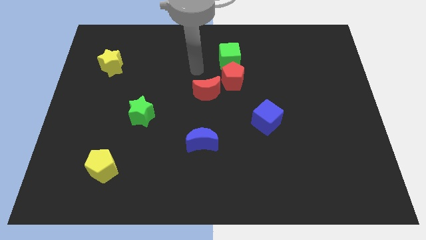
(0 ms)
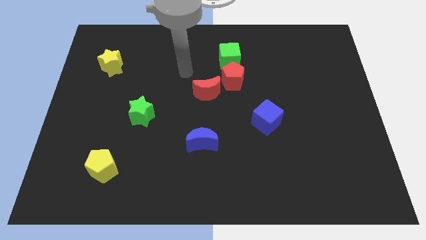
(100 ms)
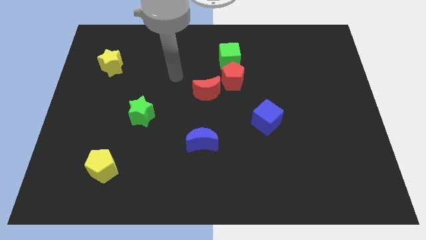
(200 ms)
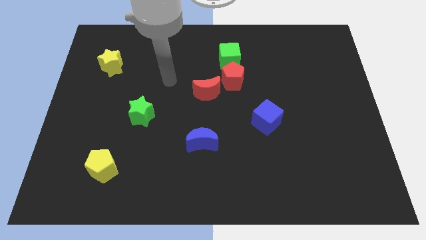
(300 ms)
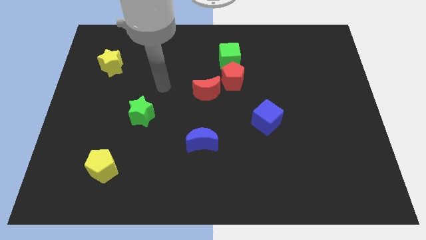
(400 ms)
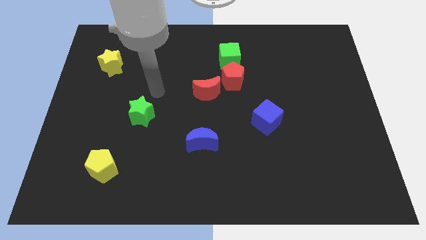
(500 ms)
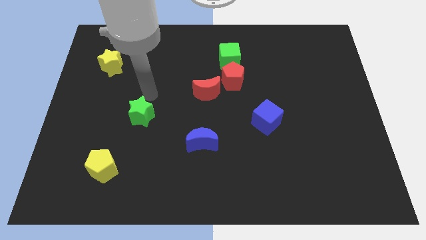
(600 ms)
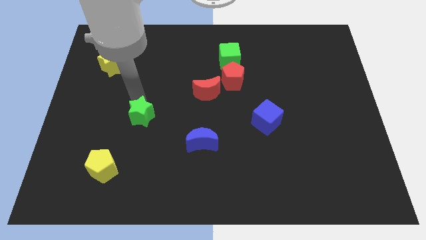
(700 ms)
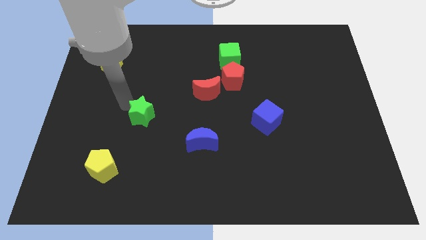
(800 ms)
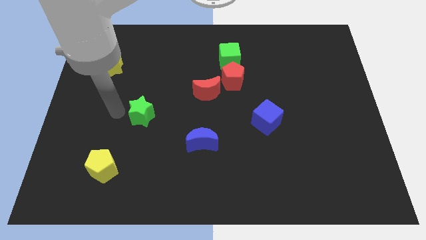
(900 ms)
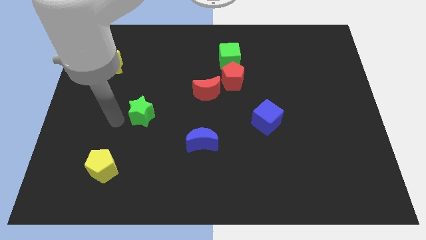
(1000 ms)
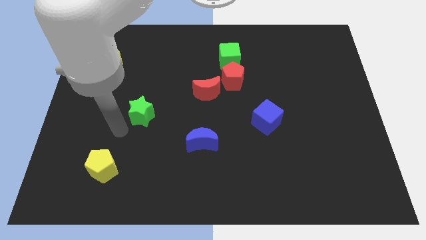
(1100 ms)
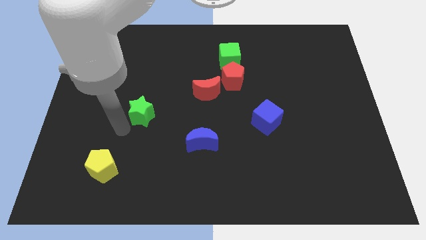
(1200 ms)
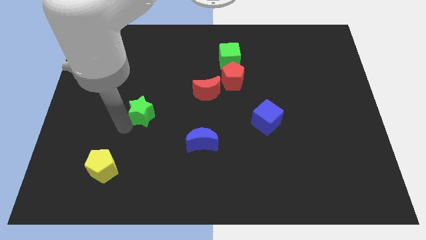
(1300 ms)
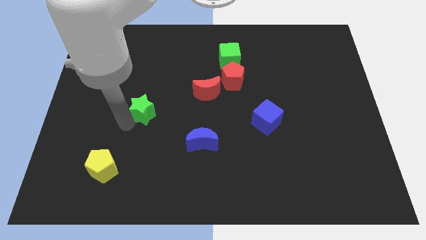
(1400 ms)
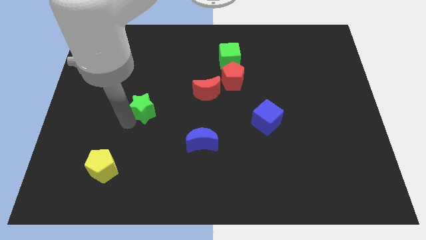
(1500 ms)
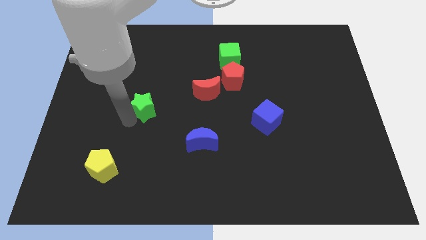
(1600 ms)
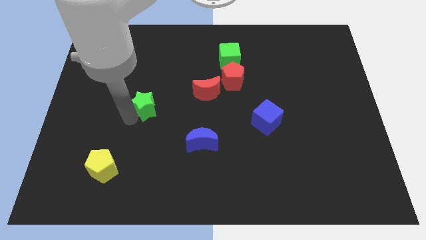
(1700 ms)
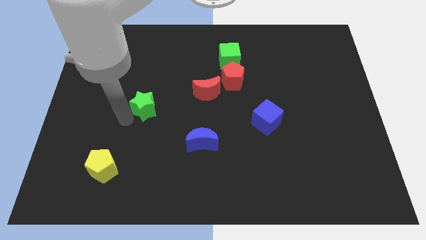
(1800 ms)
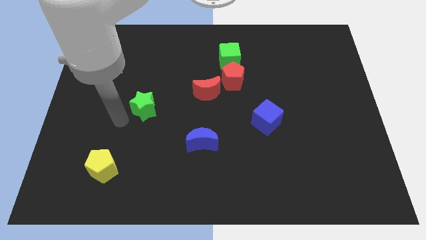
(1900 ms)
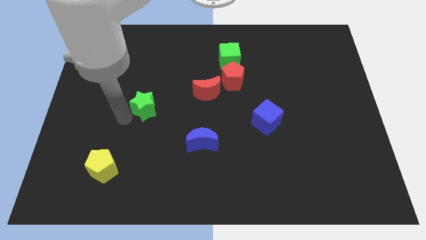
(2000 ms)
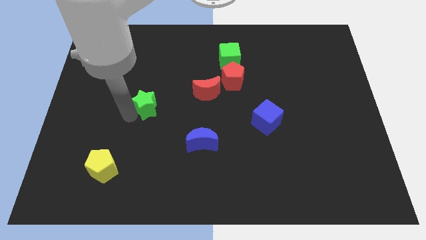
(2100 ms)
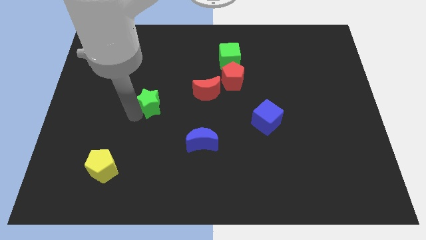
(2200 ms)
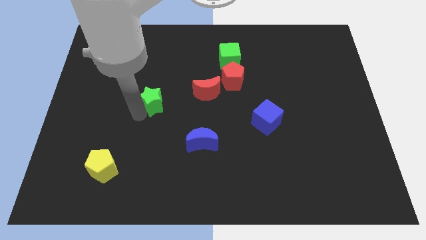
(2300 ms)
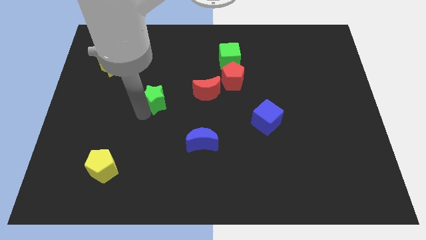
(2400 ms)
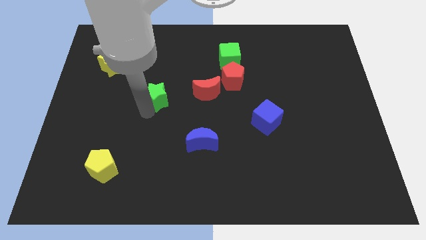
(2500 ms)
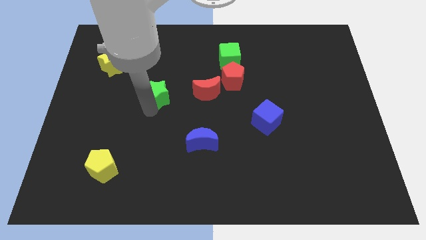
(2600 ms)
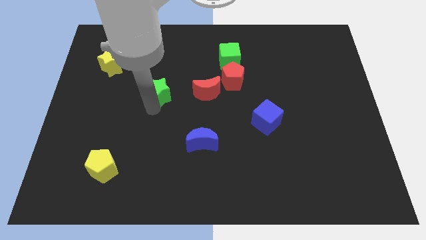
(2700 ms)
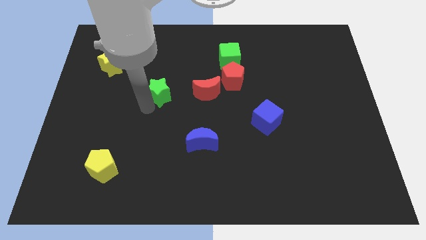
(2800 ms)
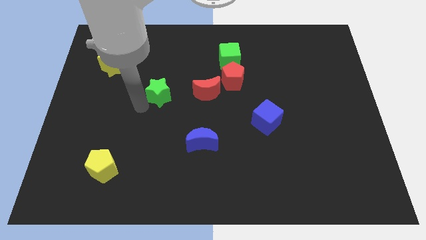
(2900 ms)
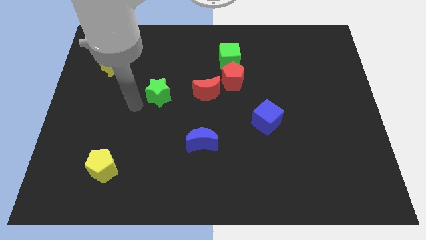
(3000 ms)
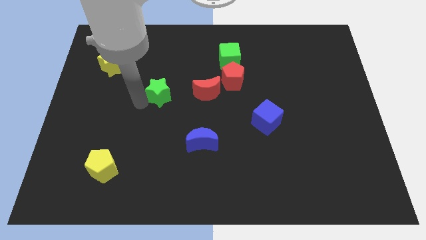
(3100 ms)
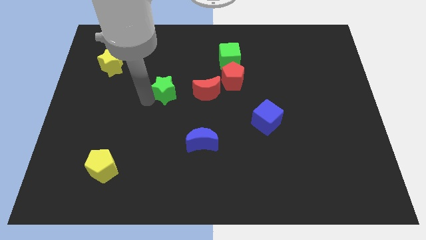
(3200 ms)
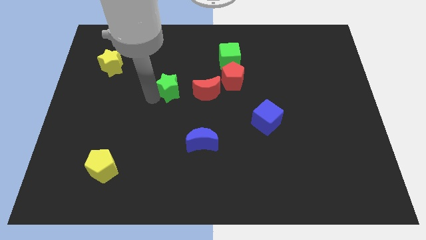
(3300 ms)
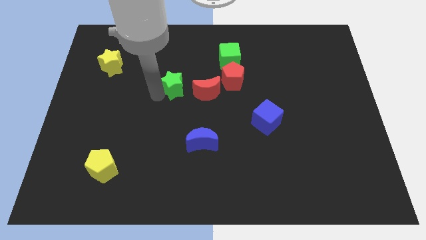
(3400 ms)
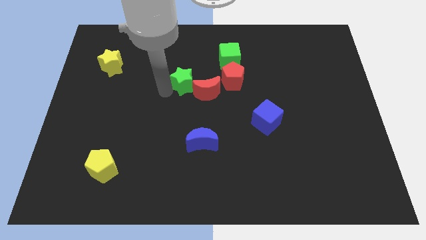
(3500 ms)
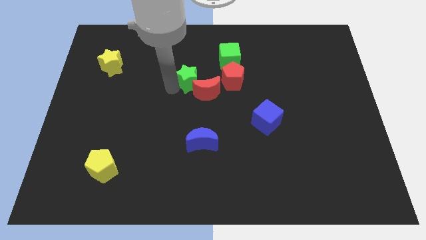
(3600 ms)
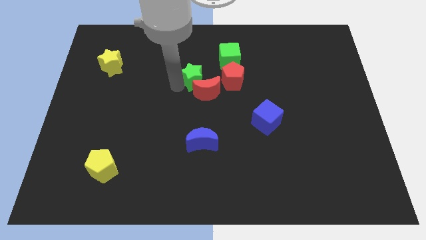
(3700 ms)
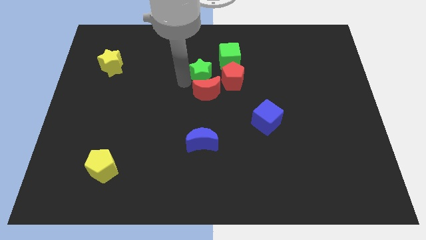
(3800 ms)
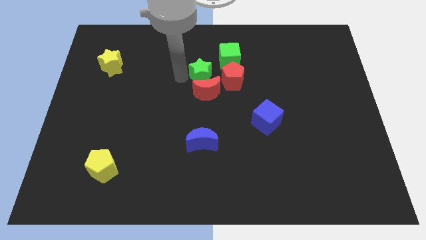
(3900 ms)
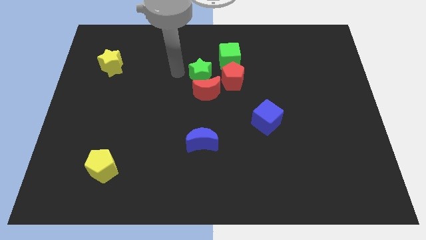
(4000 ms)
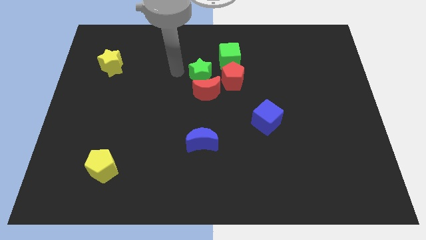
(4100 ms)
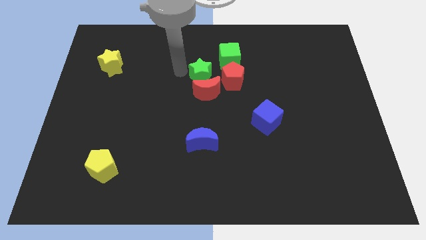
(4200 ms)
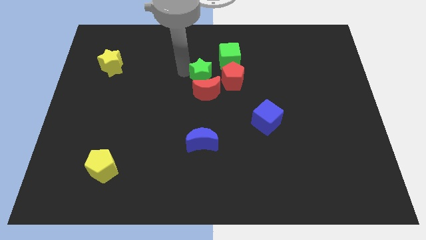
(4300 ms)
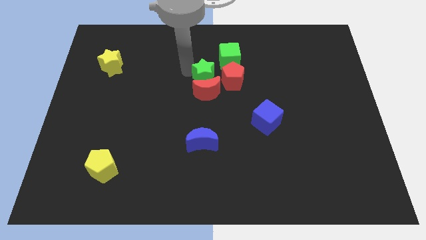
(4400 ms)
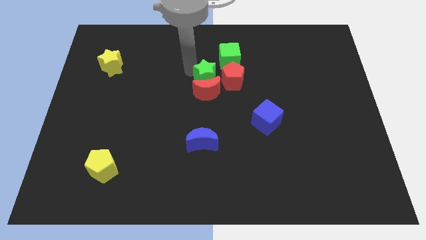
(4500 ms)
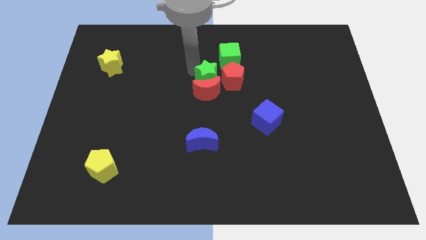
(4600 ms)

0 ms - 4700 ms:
move the green star towards the red pentagon

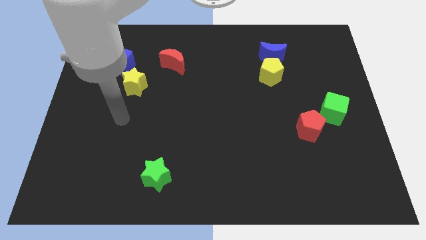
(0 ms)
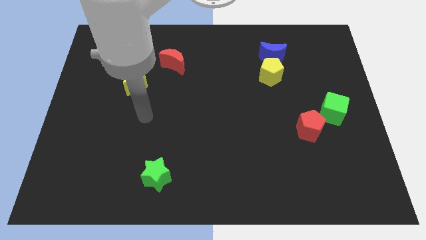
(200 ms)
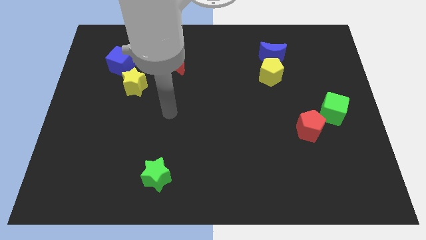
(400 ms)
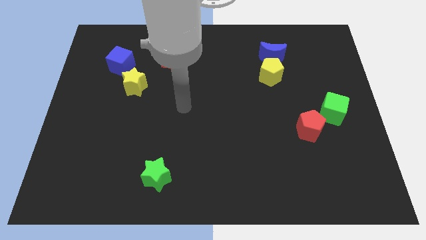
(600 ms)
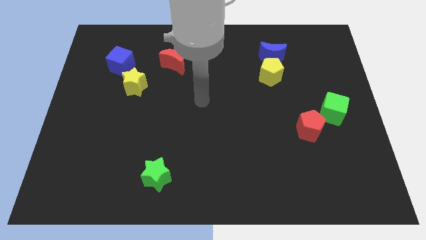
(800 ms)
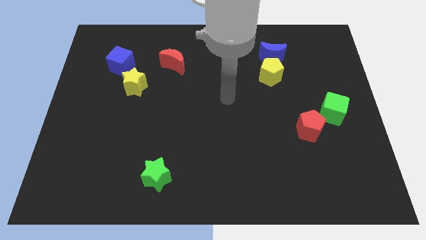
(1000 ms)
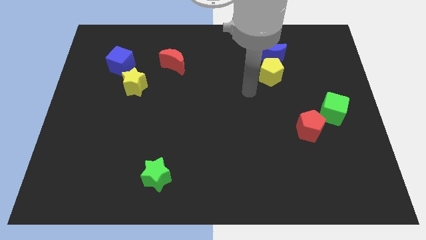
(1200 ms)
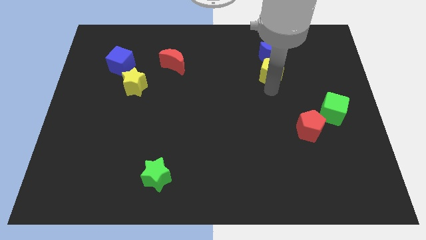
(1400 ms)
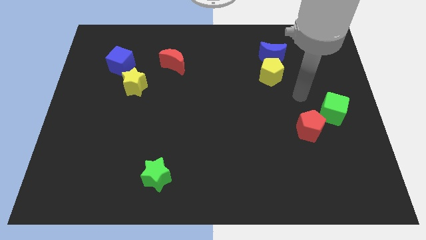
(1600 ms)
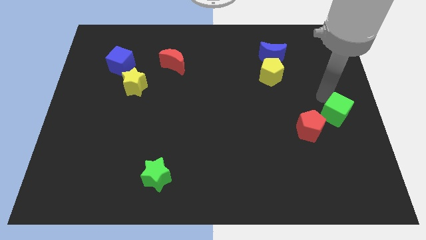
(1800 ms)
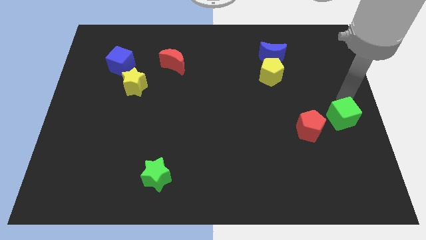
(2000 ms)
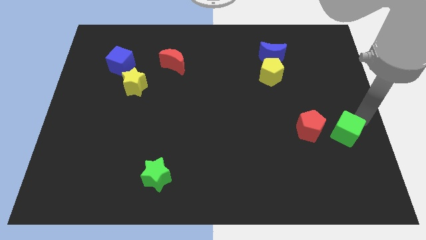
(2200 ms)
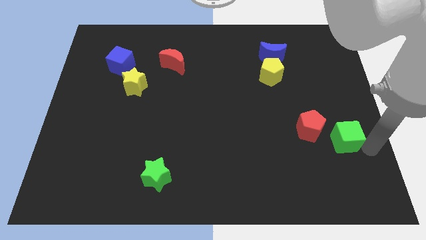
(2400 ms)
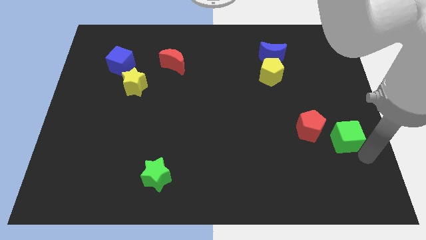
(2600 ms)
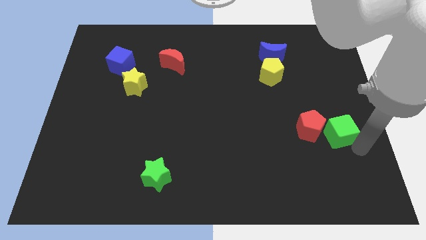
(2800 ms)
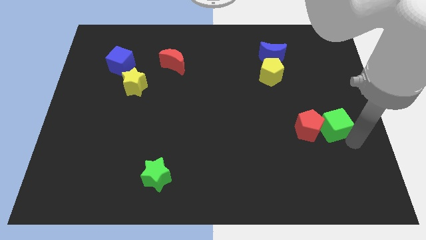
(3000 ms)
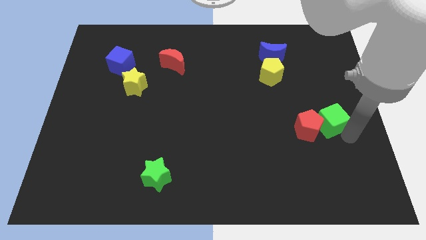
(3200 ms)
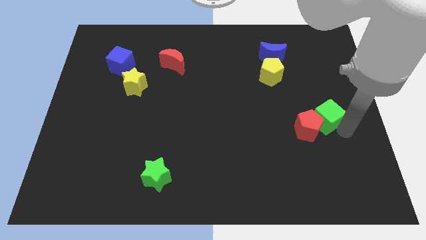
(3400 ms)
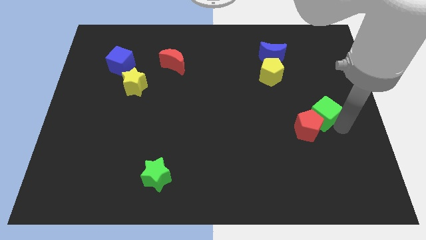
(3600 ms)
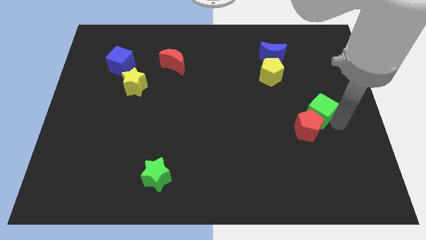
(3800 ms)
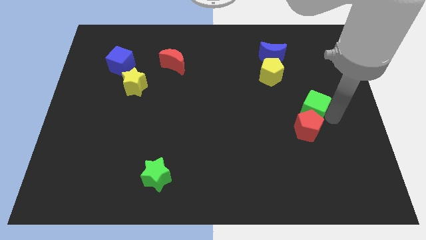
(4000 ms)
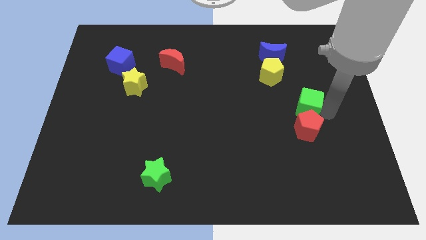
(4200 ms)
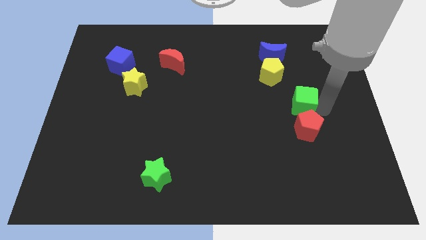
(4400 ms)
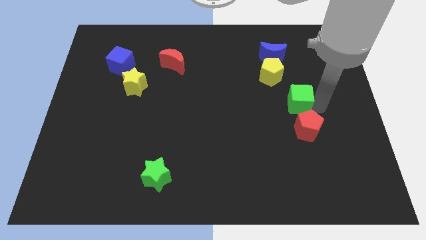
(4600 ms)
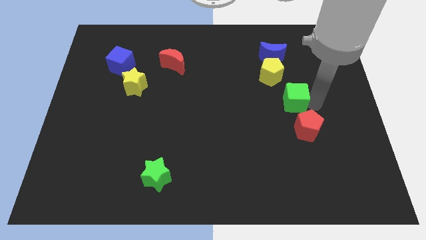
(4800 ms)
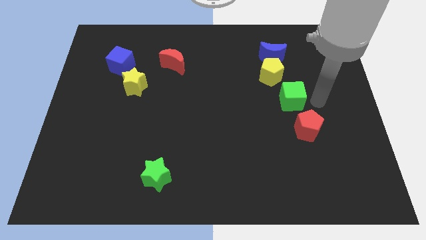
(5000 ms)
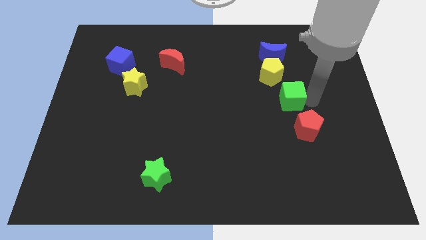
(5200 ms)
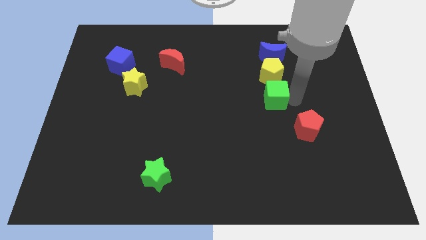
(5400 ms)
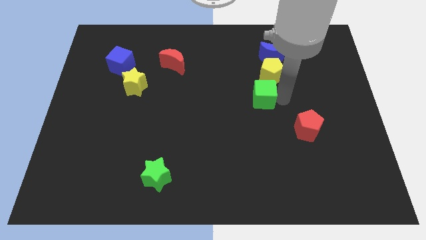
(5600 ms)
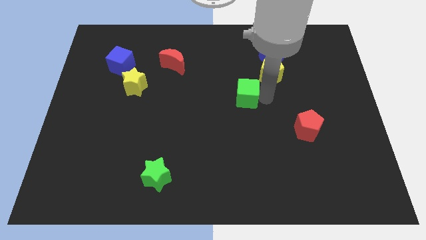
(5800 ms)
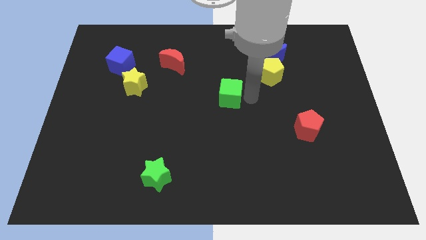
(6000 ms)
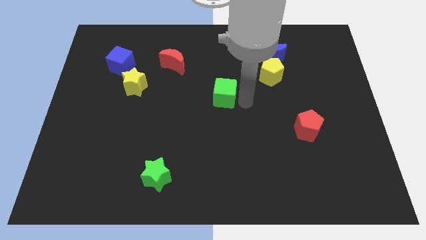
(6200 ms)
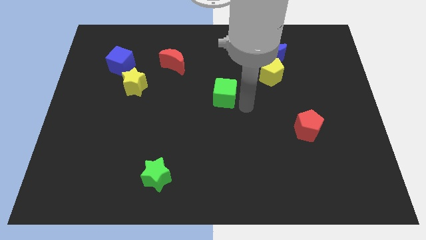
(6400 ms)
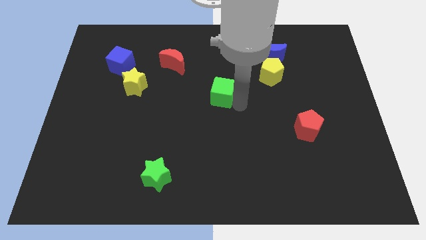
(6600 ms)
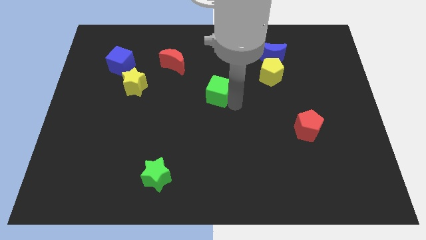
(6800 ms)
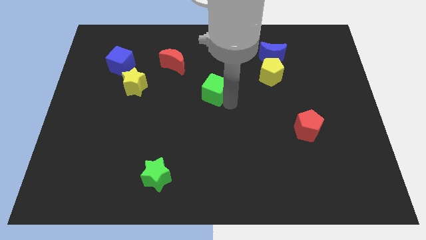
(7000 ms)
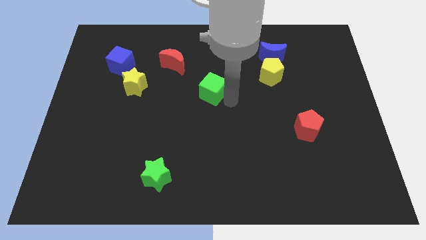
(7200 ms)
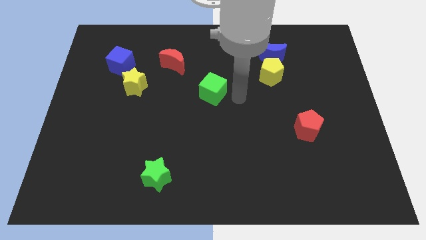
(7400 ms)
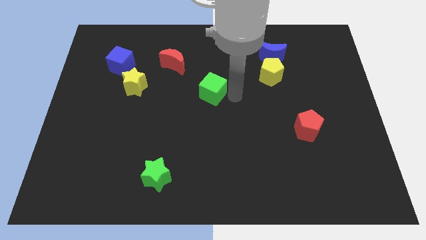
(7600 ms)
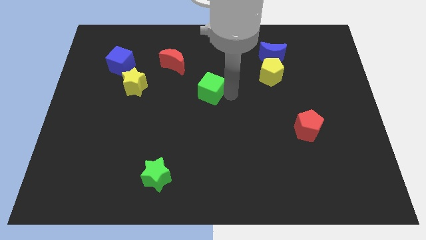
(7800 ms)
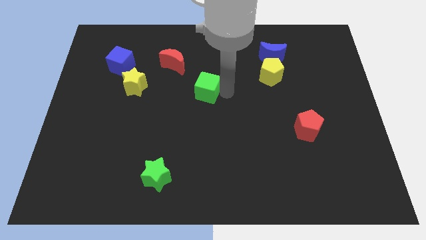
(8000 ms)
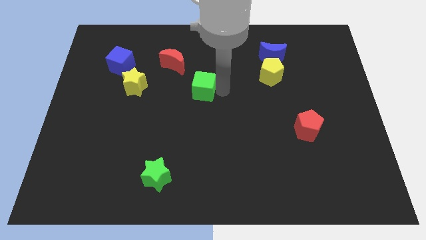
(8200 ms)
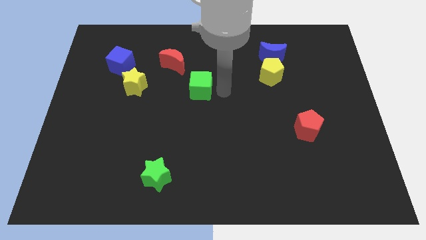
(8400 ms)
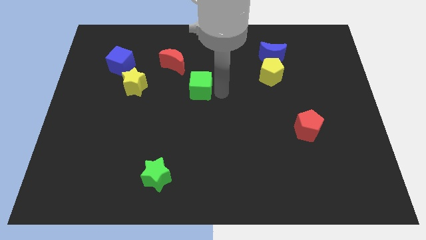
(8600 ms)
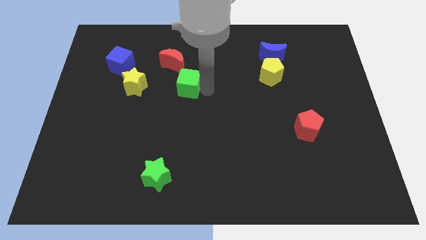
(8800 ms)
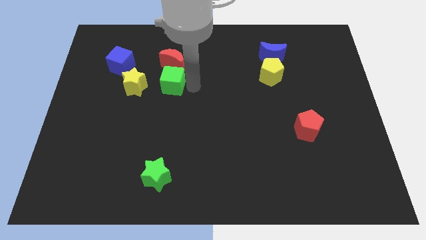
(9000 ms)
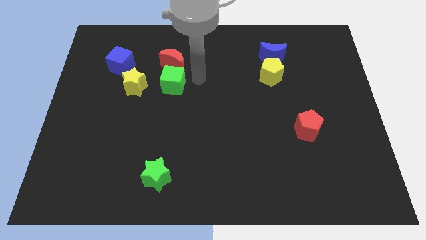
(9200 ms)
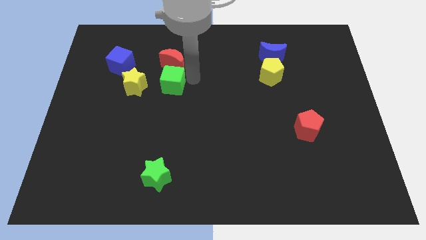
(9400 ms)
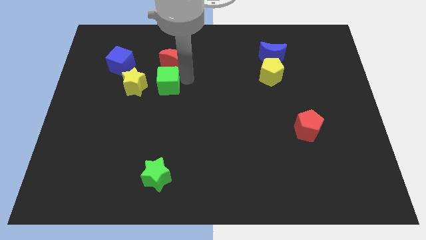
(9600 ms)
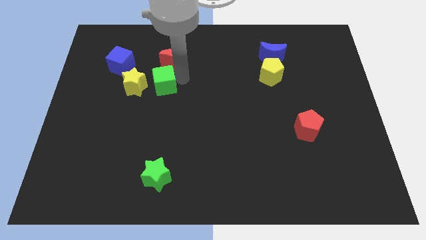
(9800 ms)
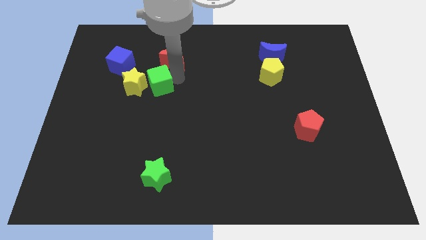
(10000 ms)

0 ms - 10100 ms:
slide the green cube to the yellow star
